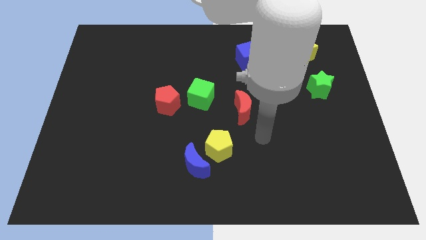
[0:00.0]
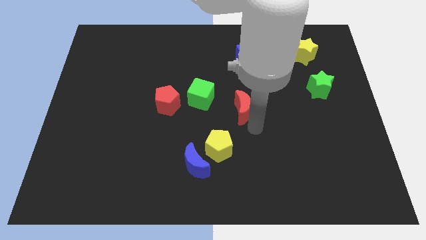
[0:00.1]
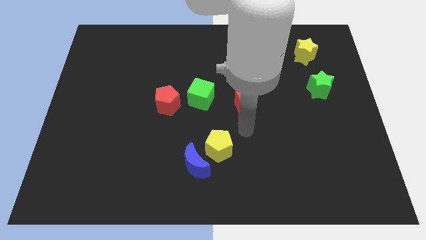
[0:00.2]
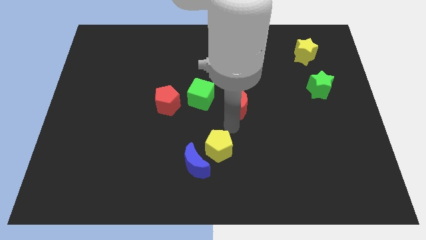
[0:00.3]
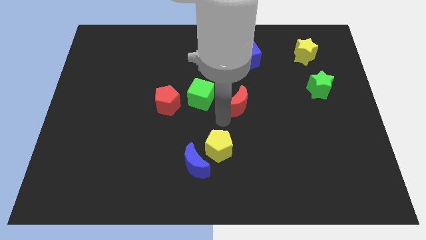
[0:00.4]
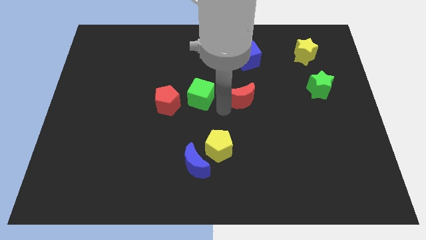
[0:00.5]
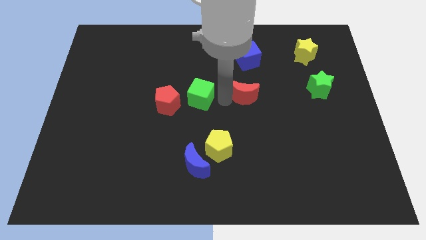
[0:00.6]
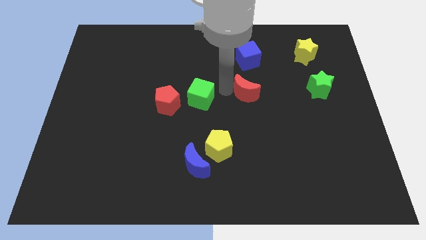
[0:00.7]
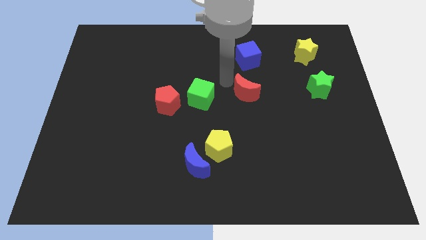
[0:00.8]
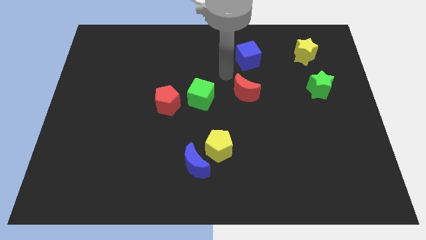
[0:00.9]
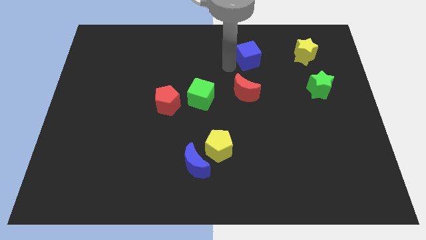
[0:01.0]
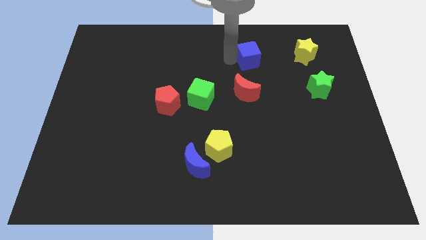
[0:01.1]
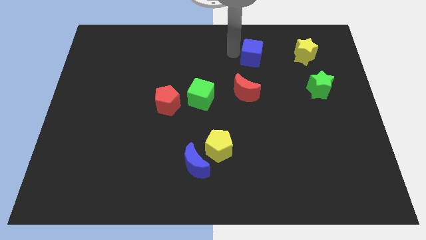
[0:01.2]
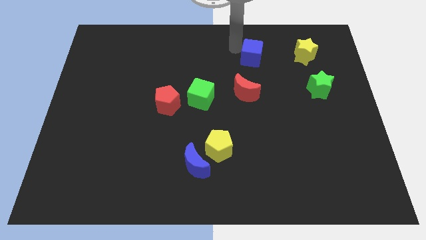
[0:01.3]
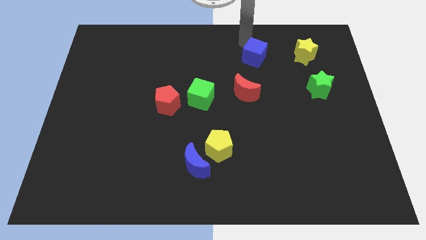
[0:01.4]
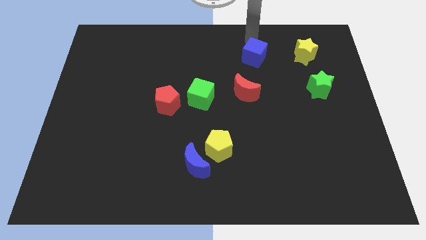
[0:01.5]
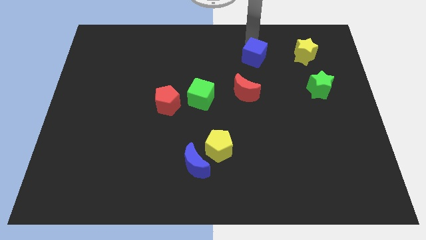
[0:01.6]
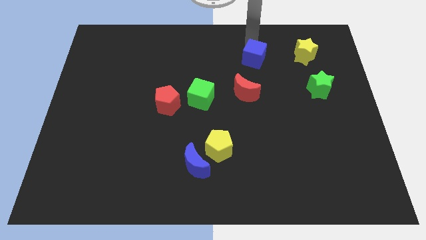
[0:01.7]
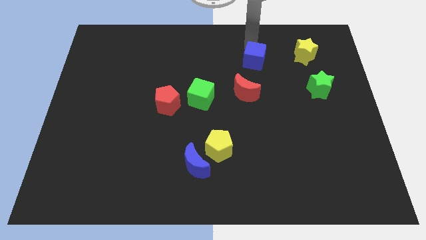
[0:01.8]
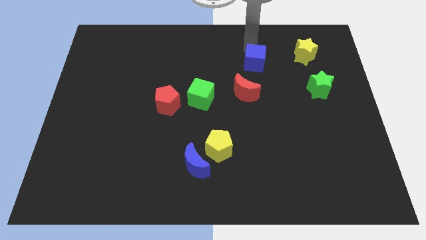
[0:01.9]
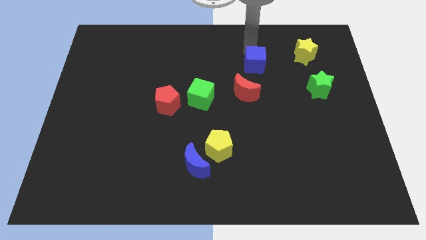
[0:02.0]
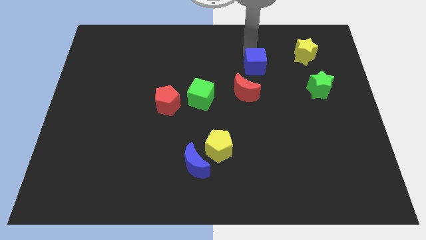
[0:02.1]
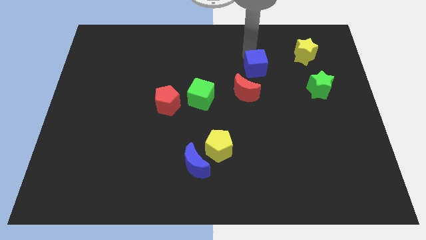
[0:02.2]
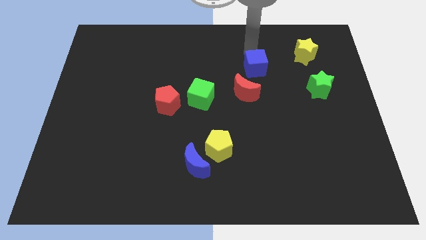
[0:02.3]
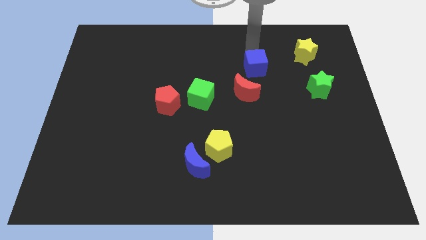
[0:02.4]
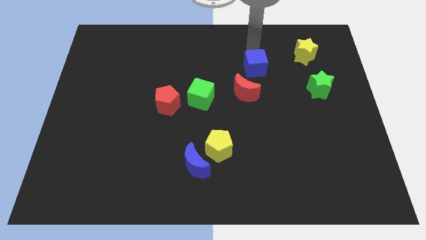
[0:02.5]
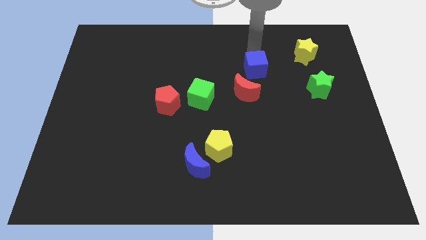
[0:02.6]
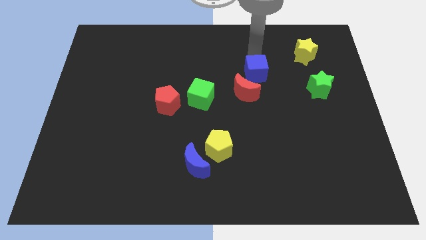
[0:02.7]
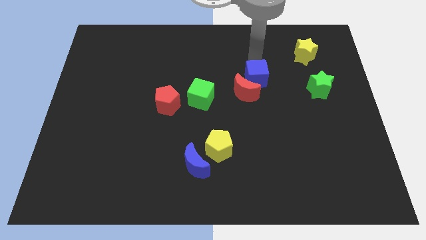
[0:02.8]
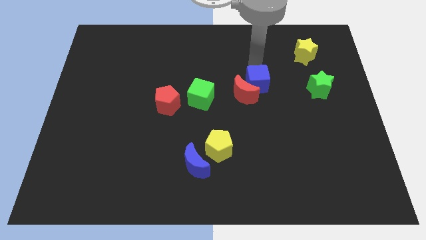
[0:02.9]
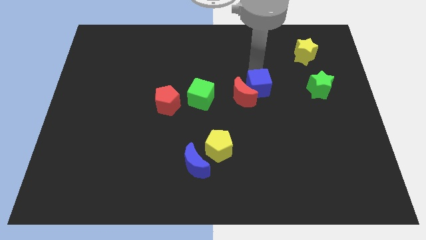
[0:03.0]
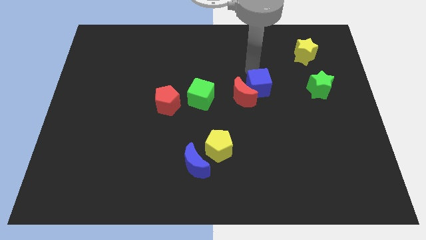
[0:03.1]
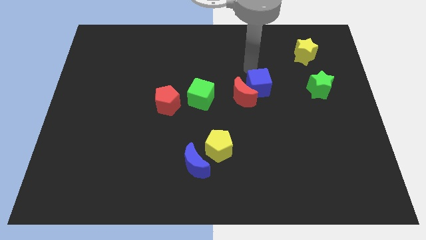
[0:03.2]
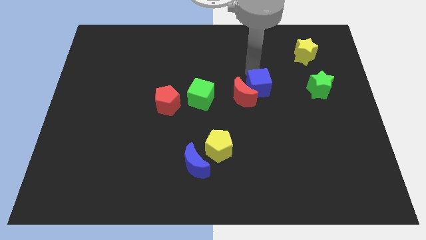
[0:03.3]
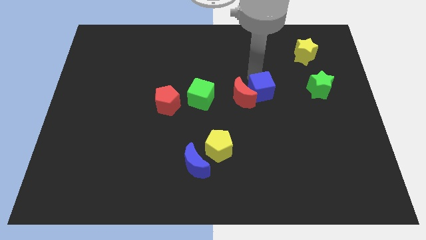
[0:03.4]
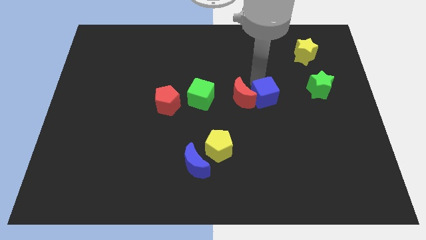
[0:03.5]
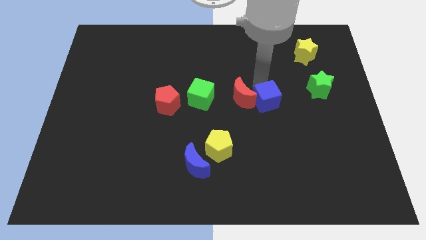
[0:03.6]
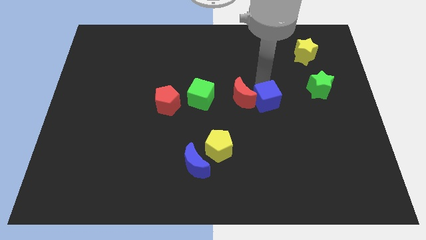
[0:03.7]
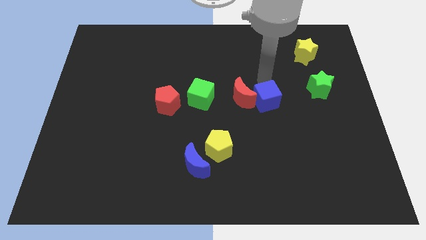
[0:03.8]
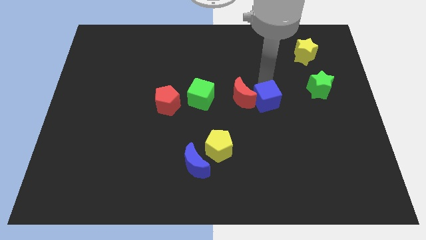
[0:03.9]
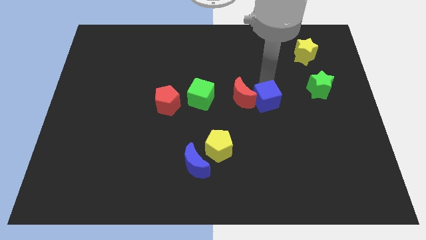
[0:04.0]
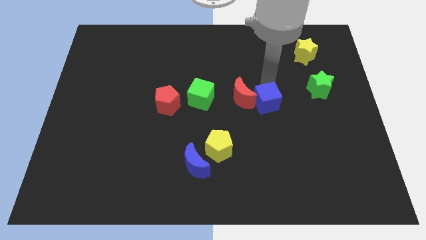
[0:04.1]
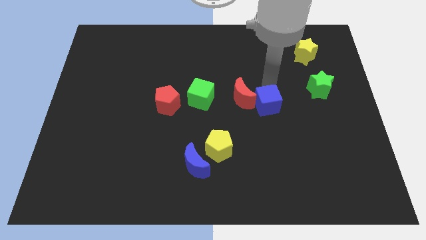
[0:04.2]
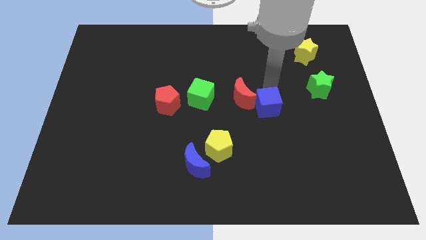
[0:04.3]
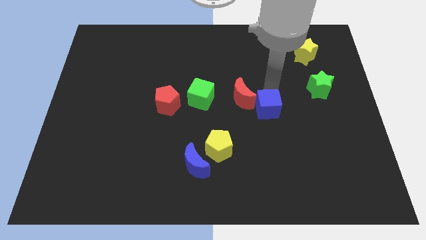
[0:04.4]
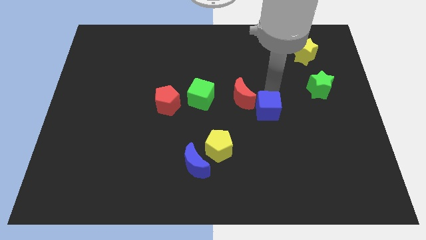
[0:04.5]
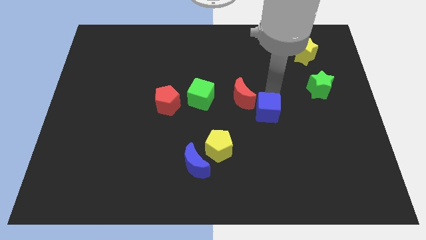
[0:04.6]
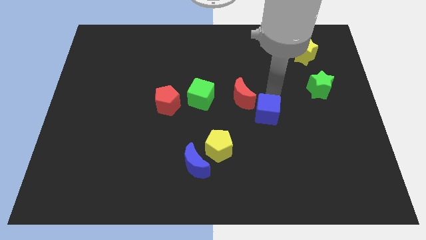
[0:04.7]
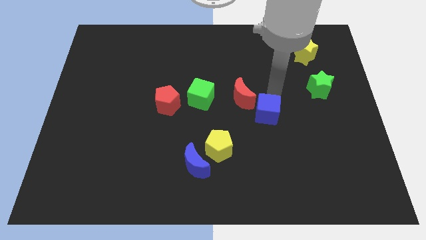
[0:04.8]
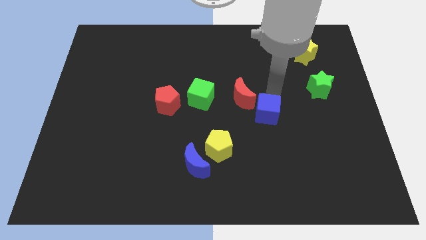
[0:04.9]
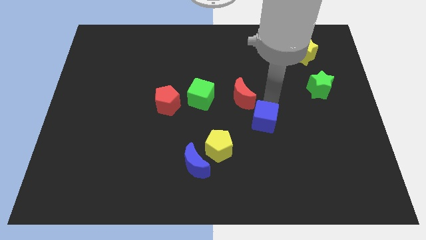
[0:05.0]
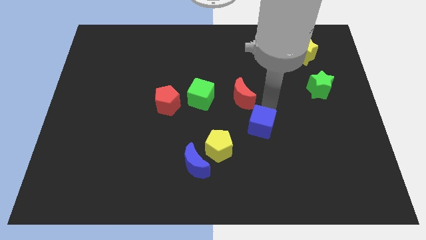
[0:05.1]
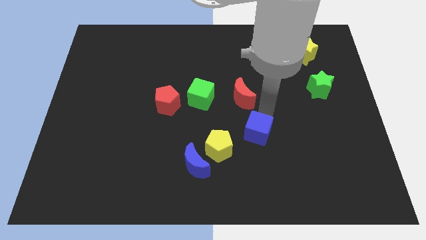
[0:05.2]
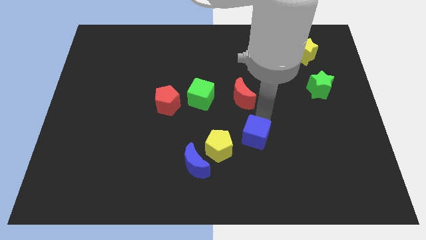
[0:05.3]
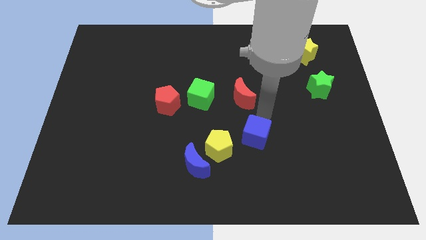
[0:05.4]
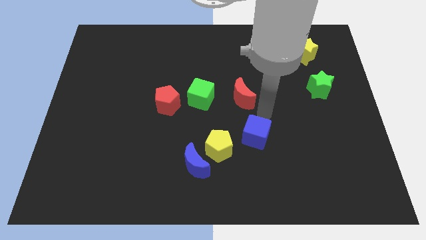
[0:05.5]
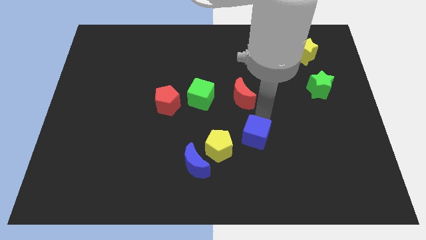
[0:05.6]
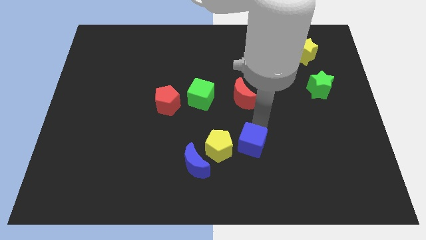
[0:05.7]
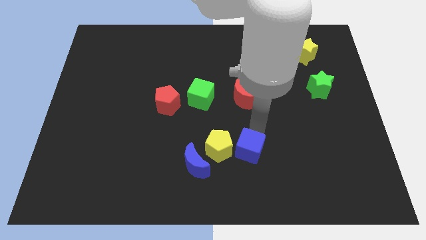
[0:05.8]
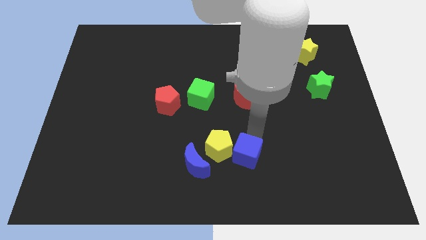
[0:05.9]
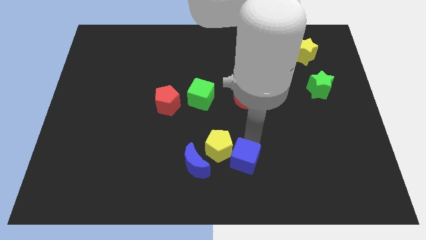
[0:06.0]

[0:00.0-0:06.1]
move the blue cube to the bottom side

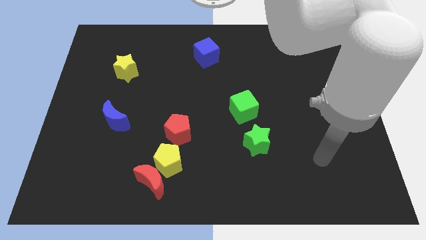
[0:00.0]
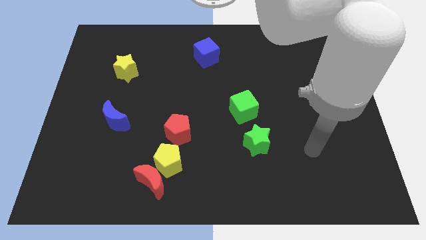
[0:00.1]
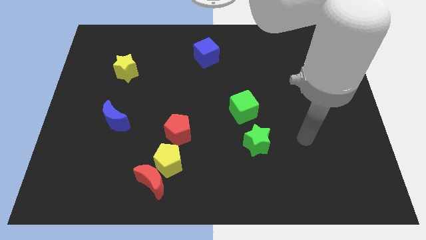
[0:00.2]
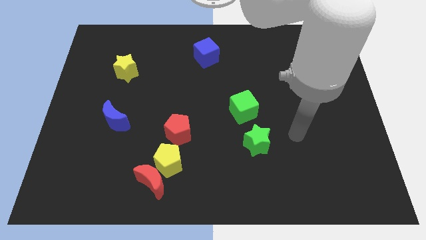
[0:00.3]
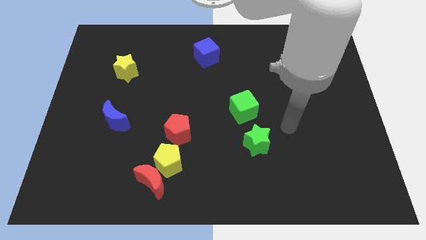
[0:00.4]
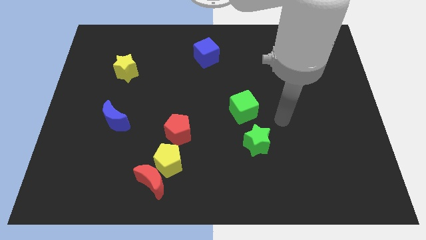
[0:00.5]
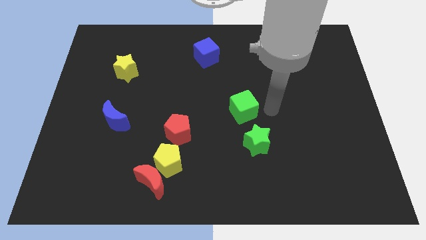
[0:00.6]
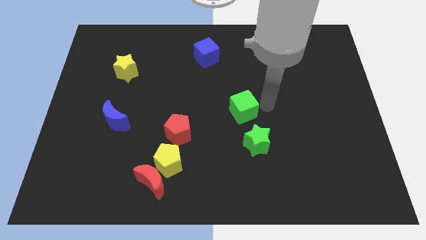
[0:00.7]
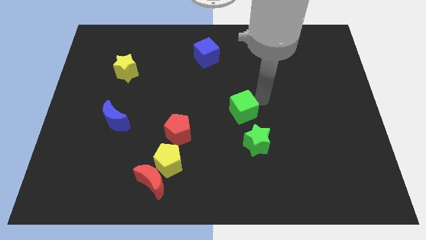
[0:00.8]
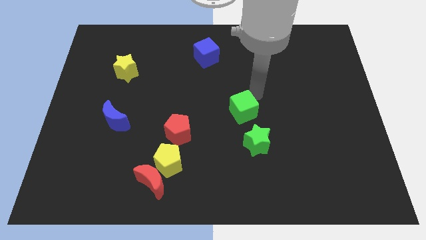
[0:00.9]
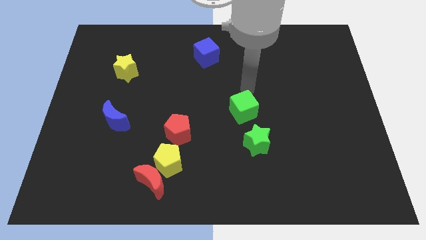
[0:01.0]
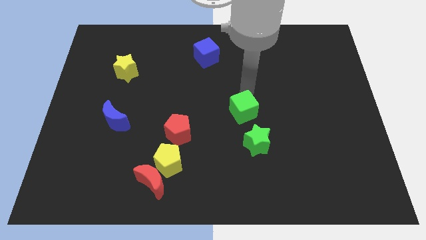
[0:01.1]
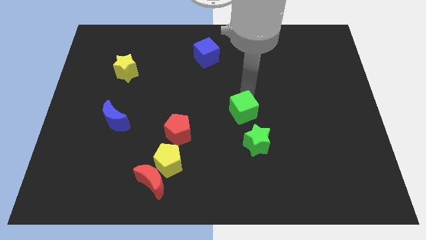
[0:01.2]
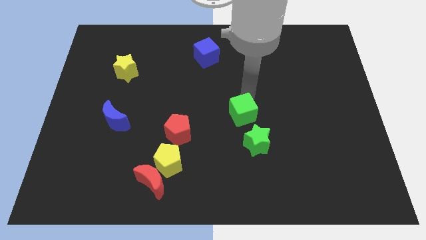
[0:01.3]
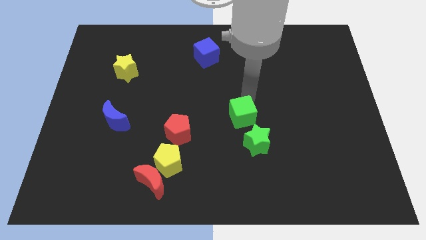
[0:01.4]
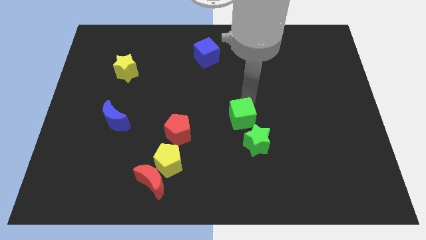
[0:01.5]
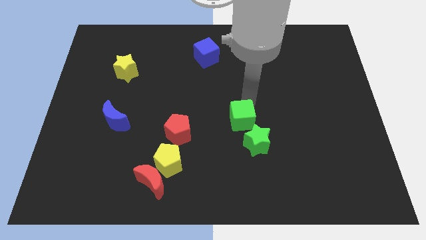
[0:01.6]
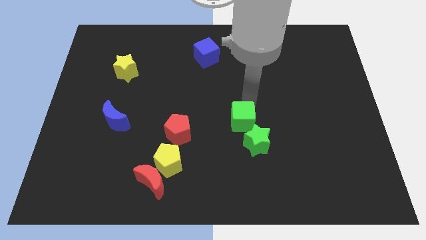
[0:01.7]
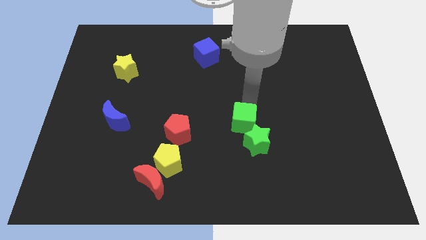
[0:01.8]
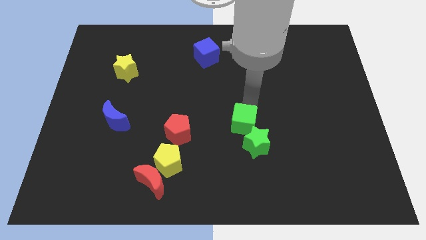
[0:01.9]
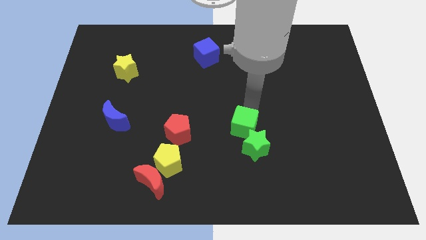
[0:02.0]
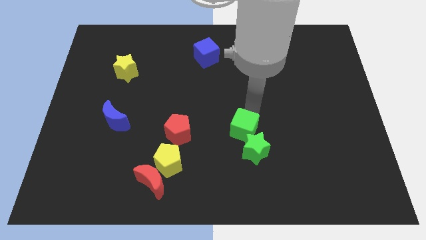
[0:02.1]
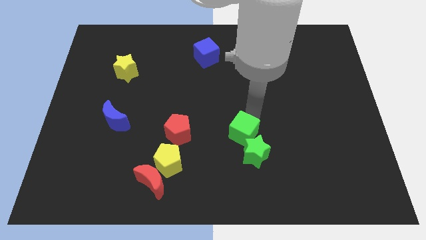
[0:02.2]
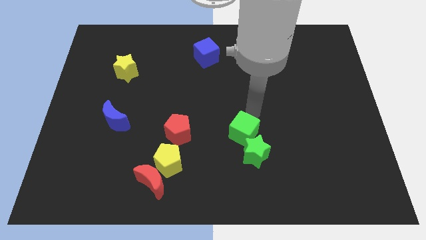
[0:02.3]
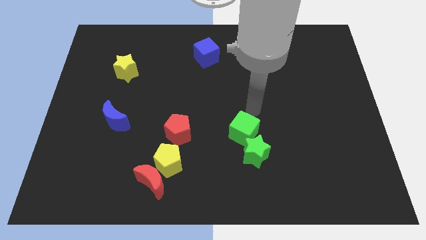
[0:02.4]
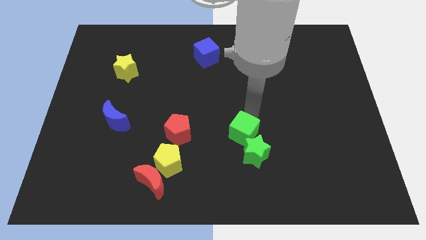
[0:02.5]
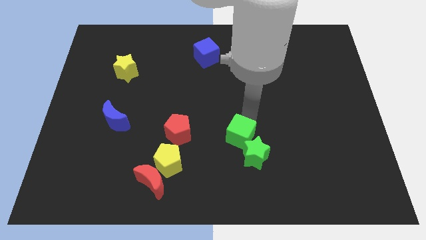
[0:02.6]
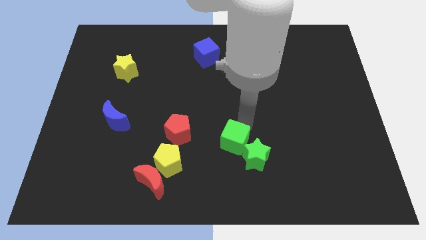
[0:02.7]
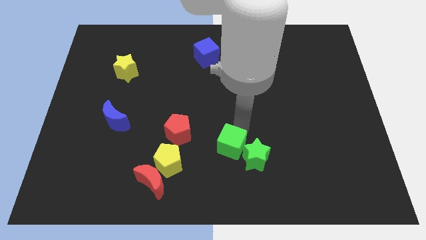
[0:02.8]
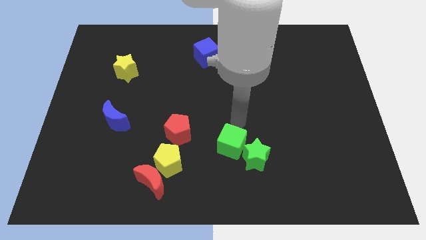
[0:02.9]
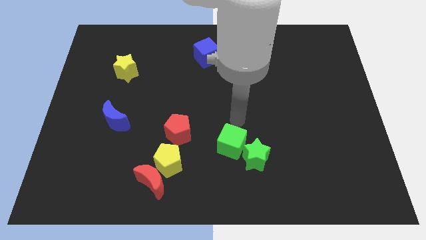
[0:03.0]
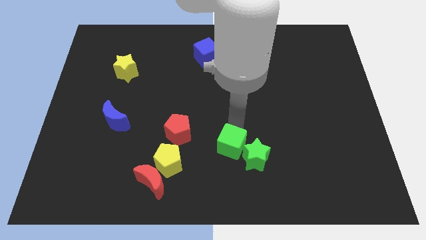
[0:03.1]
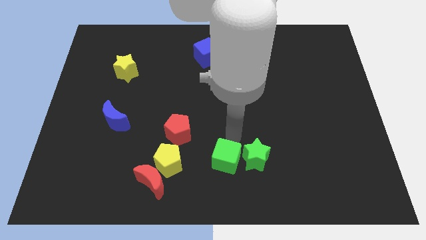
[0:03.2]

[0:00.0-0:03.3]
move the green cube to the bottom side
